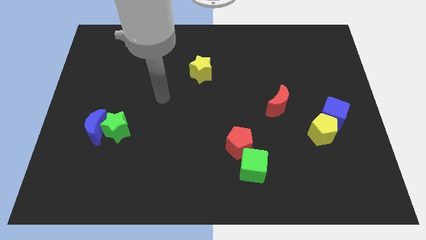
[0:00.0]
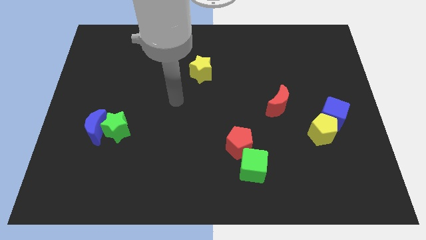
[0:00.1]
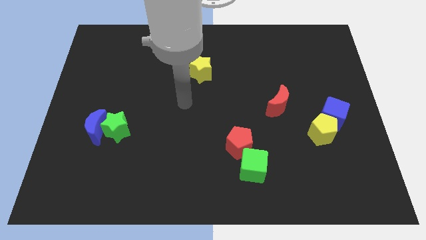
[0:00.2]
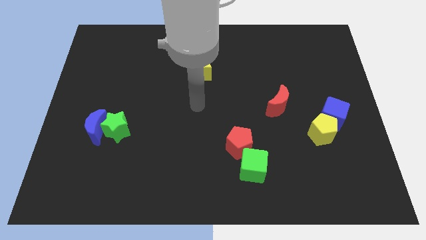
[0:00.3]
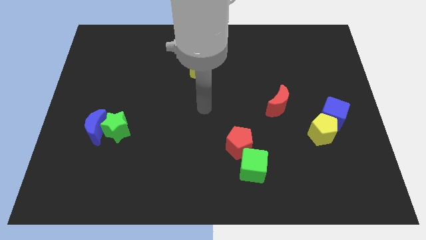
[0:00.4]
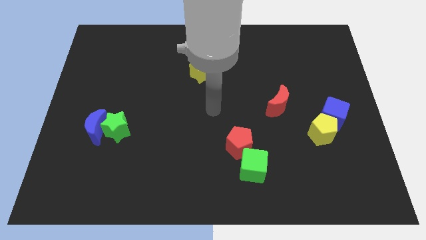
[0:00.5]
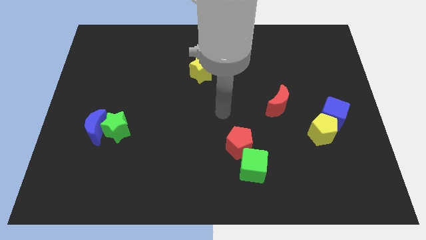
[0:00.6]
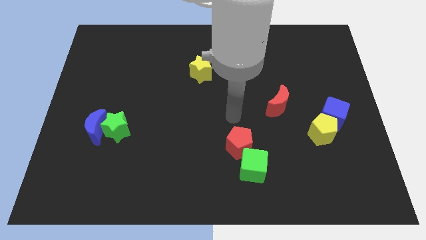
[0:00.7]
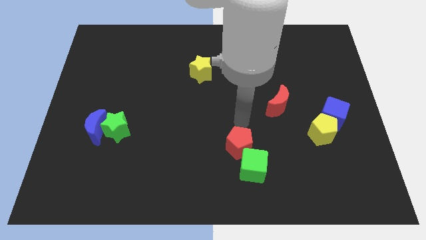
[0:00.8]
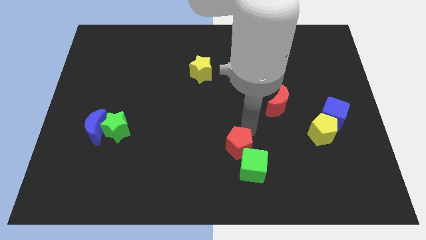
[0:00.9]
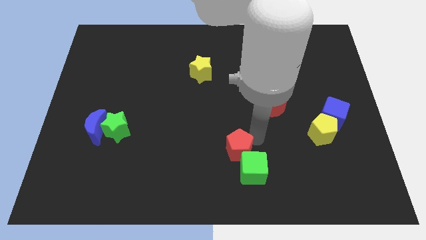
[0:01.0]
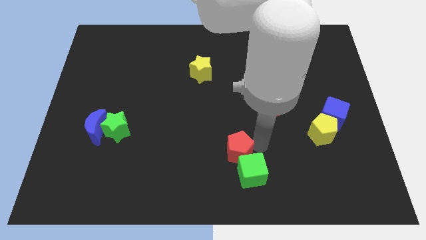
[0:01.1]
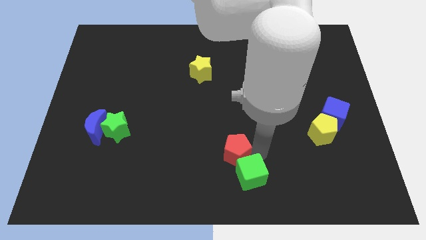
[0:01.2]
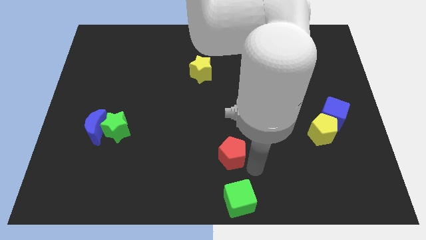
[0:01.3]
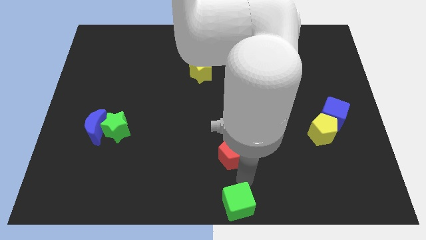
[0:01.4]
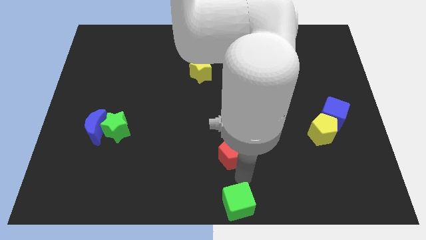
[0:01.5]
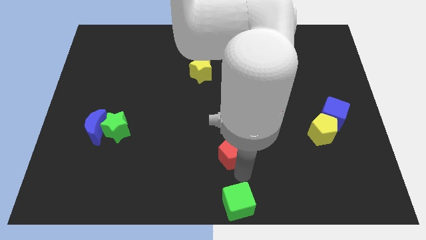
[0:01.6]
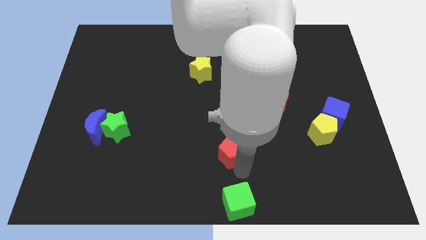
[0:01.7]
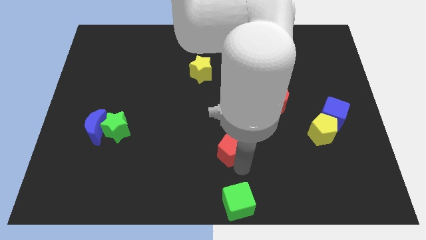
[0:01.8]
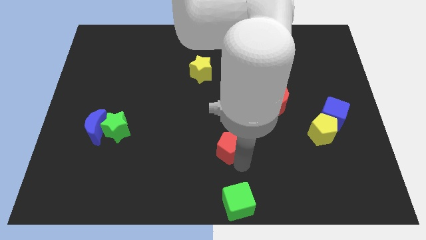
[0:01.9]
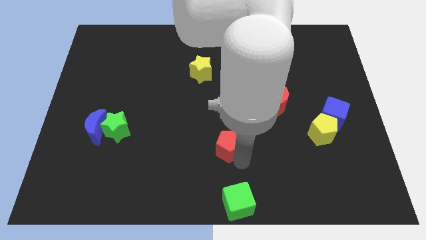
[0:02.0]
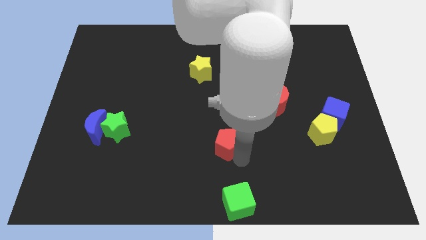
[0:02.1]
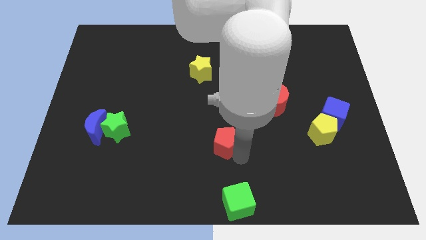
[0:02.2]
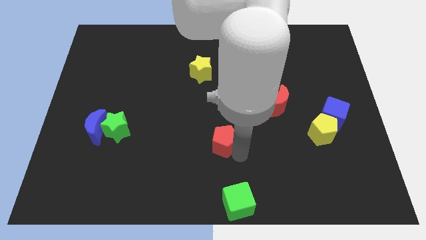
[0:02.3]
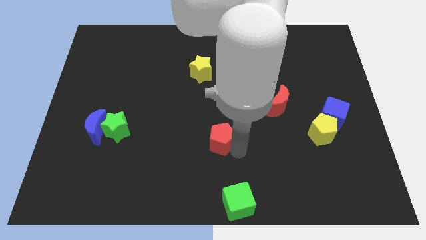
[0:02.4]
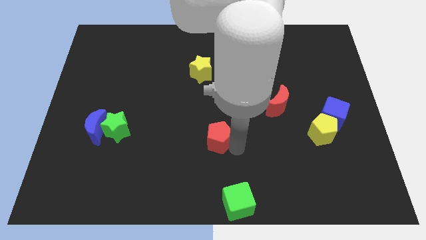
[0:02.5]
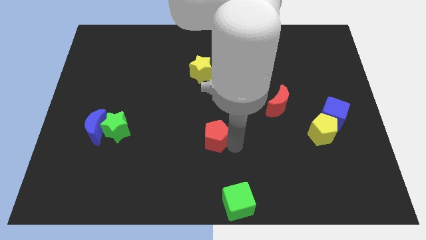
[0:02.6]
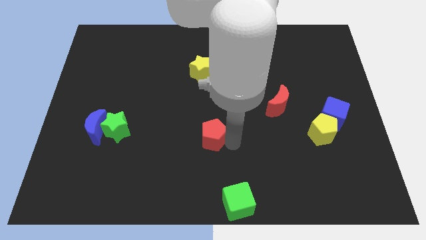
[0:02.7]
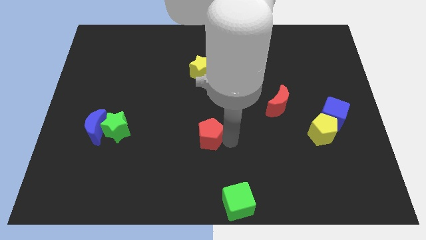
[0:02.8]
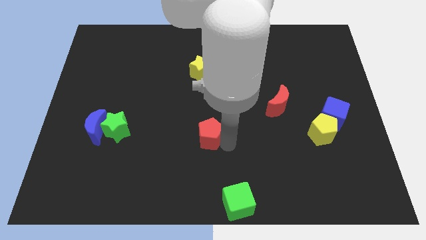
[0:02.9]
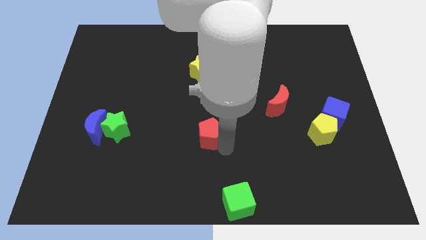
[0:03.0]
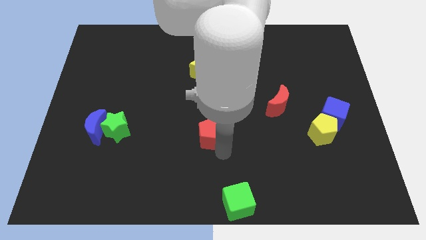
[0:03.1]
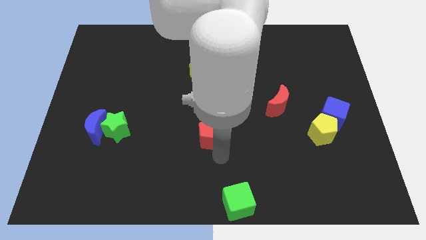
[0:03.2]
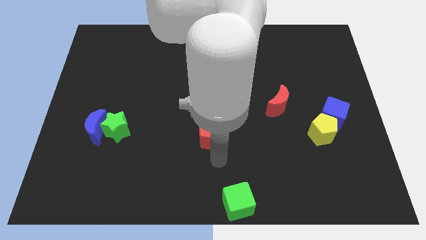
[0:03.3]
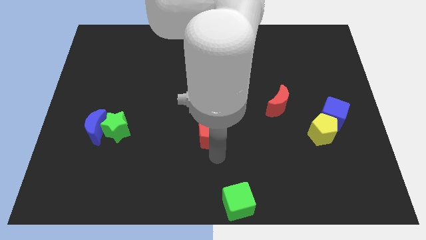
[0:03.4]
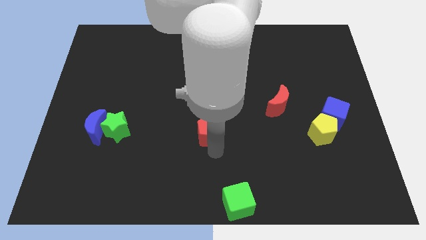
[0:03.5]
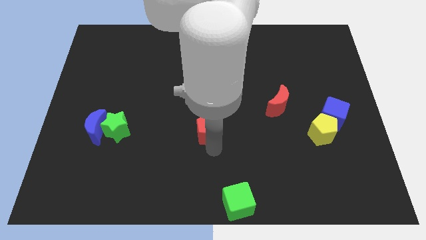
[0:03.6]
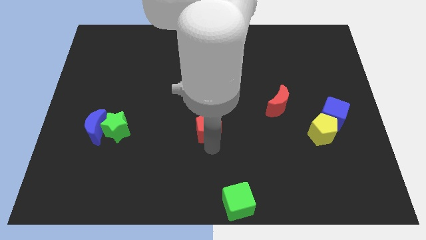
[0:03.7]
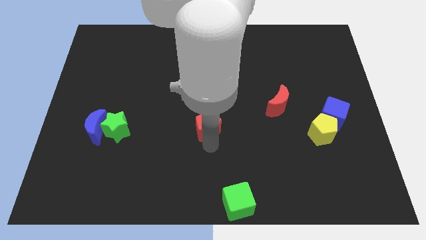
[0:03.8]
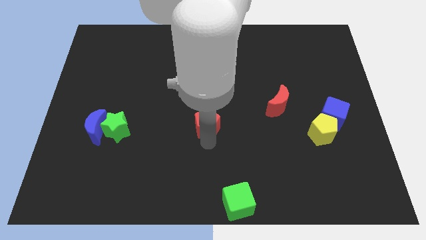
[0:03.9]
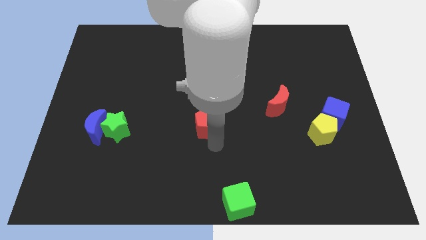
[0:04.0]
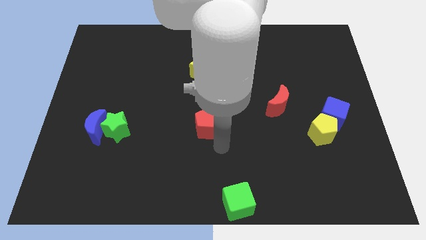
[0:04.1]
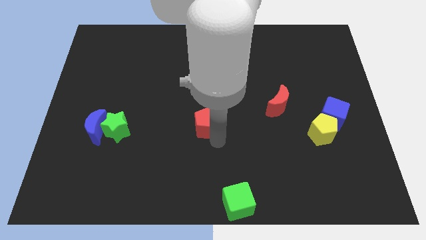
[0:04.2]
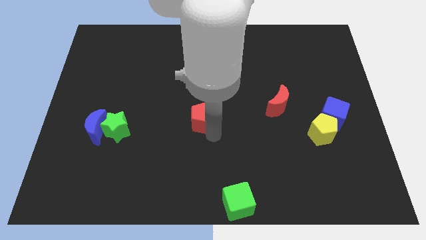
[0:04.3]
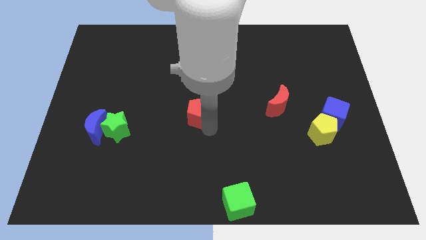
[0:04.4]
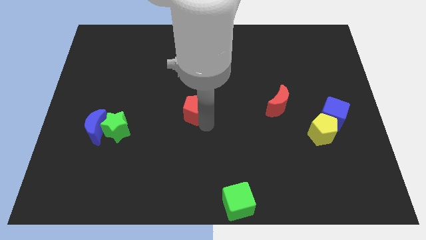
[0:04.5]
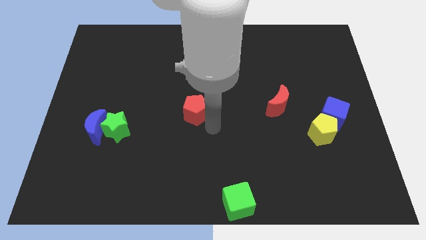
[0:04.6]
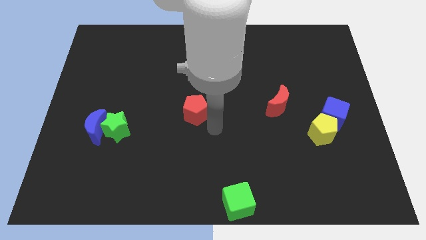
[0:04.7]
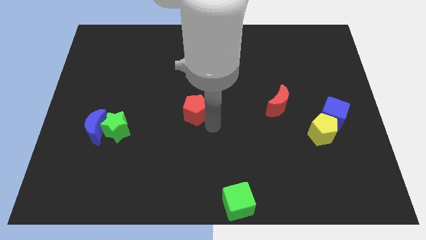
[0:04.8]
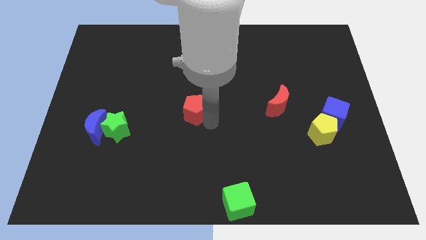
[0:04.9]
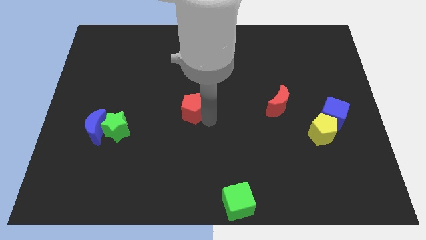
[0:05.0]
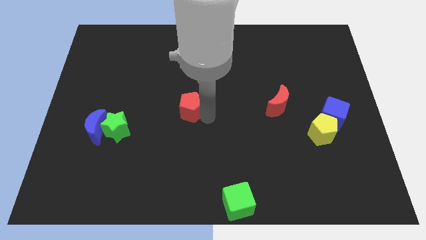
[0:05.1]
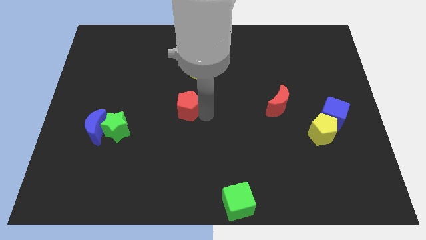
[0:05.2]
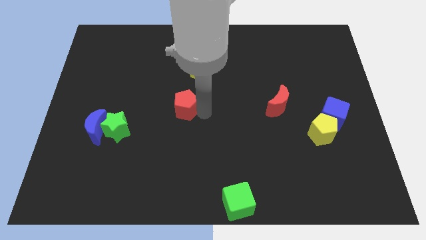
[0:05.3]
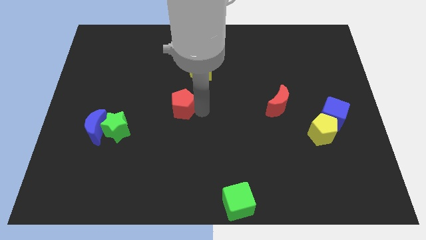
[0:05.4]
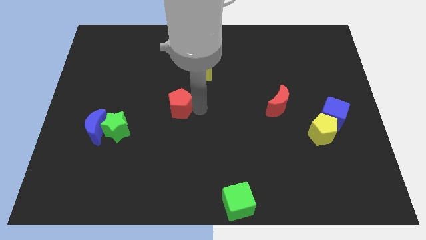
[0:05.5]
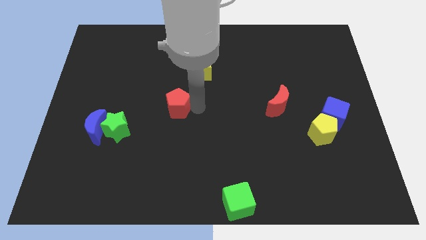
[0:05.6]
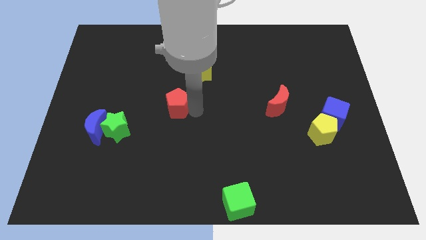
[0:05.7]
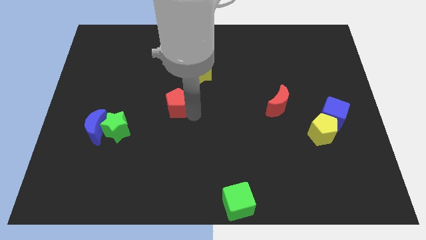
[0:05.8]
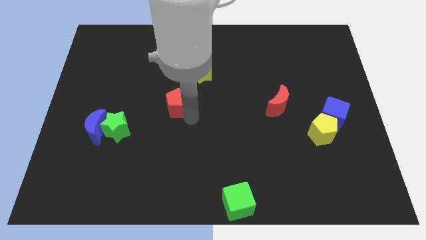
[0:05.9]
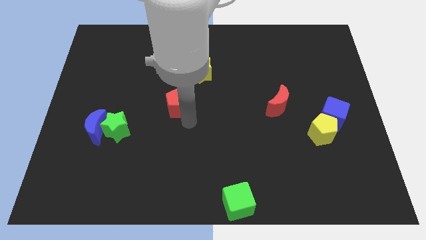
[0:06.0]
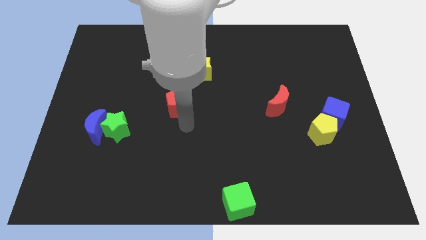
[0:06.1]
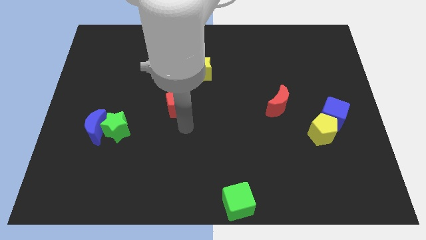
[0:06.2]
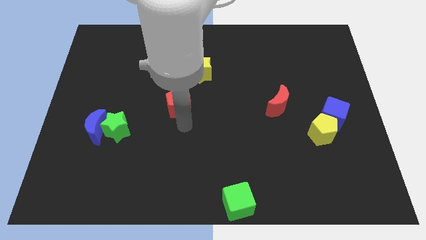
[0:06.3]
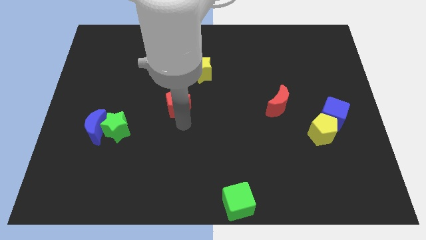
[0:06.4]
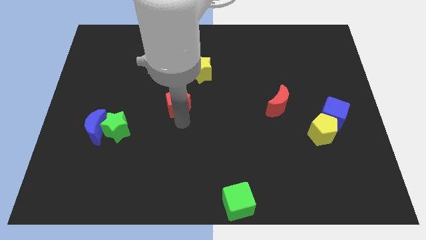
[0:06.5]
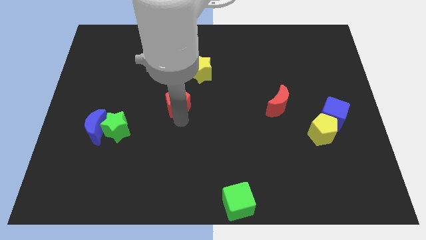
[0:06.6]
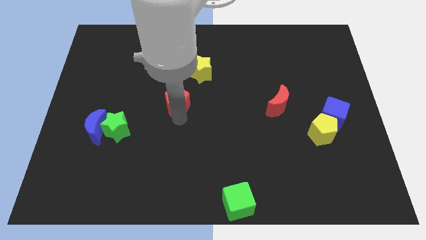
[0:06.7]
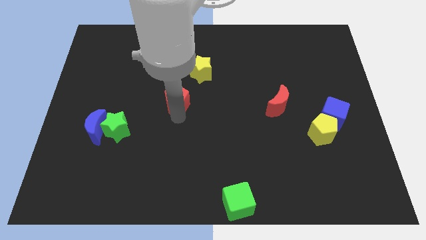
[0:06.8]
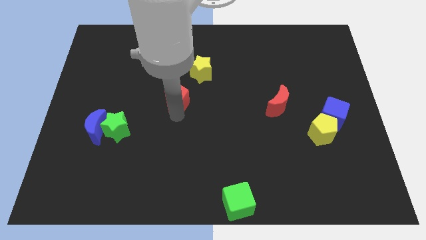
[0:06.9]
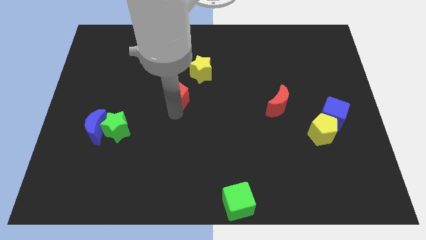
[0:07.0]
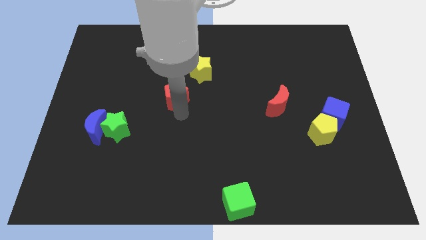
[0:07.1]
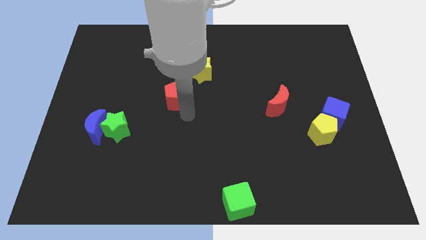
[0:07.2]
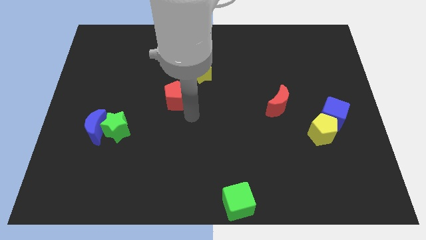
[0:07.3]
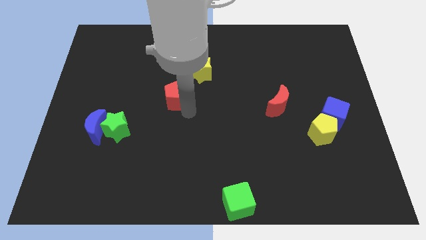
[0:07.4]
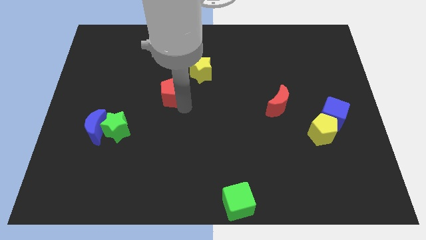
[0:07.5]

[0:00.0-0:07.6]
push the red pentagon up and left

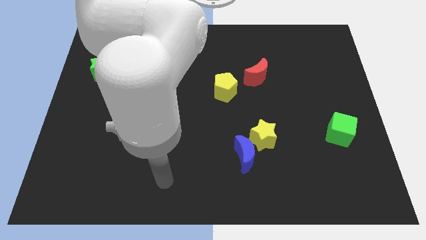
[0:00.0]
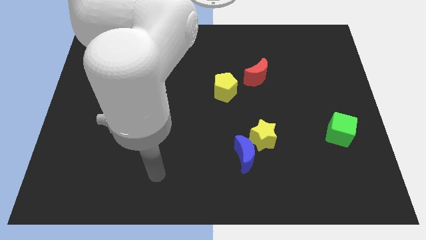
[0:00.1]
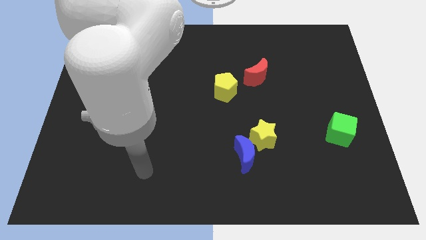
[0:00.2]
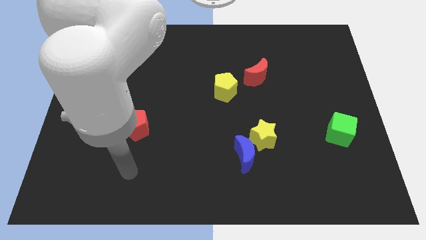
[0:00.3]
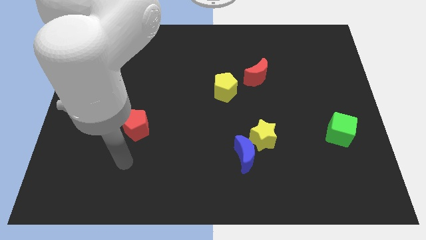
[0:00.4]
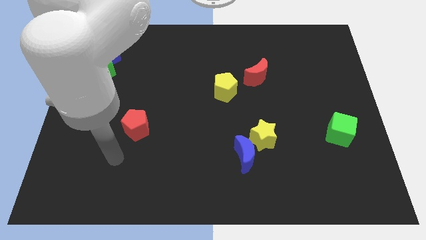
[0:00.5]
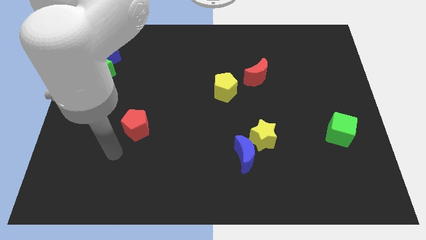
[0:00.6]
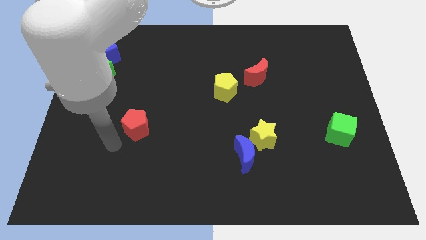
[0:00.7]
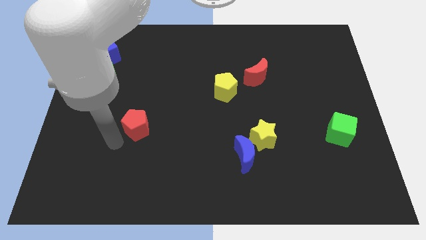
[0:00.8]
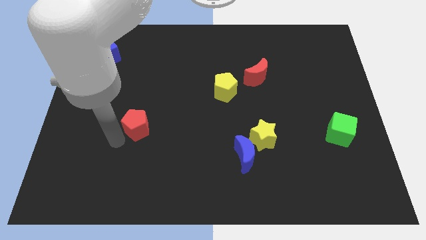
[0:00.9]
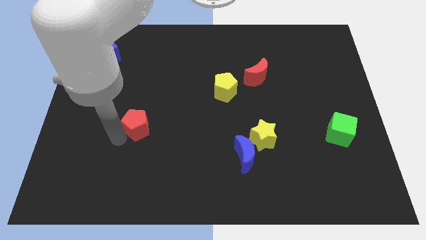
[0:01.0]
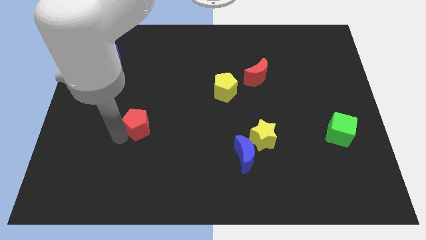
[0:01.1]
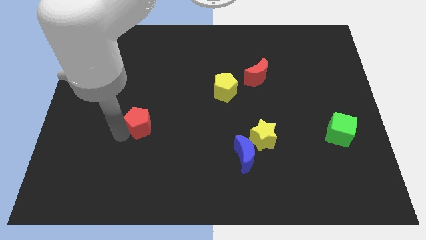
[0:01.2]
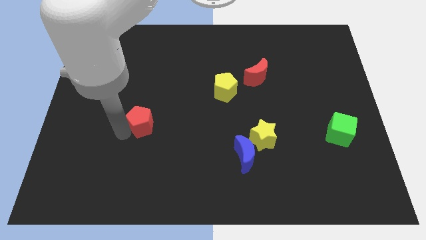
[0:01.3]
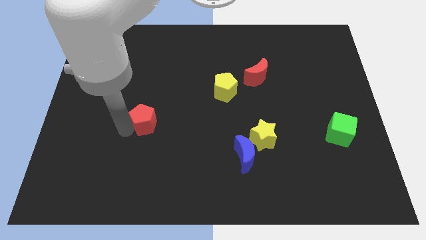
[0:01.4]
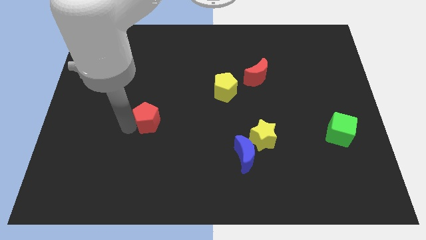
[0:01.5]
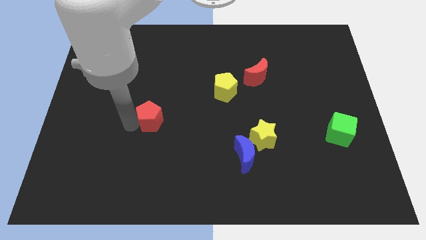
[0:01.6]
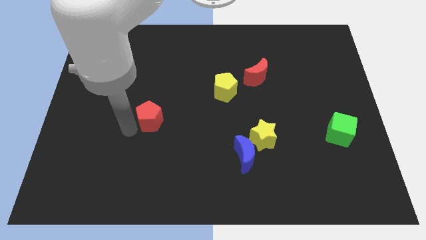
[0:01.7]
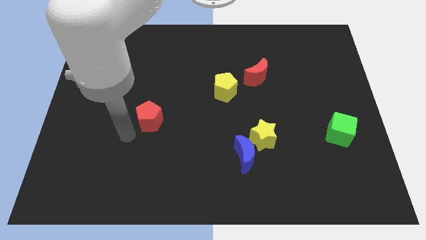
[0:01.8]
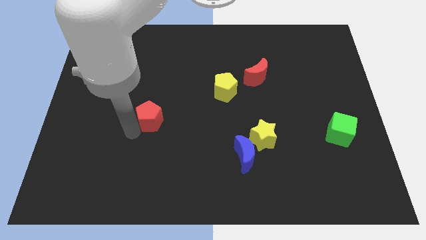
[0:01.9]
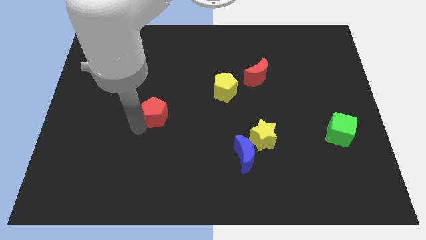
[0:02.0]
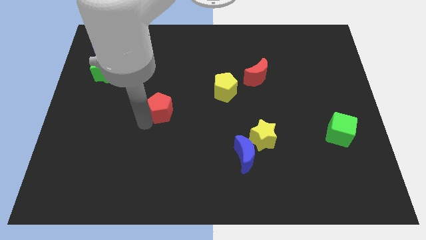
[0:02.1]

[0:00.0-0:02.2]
move the red pentagon somewhat upwards and to the right diagonally
